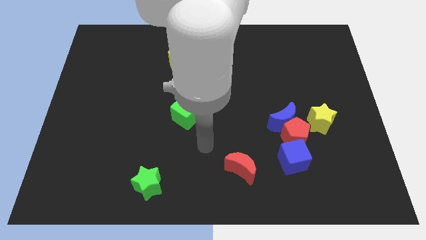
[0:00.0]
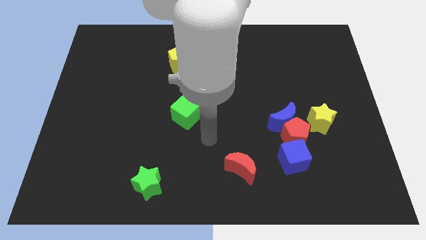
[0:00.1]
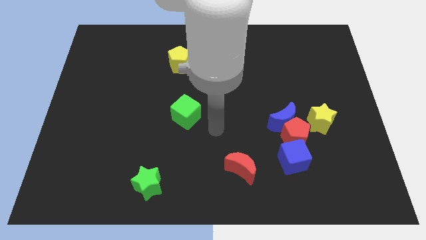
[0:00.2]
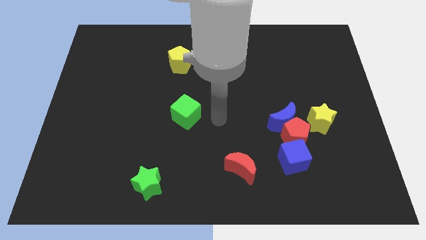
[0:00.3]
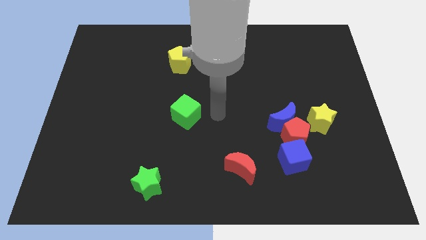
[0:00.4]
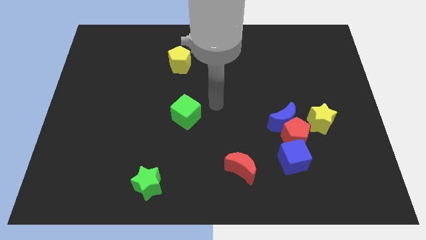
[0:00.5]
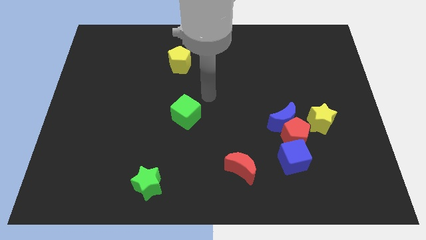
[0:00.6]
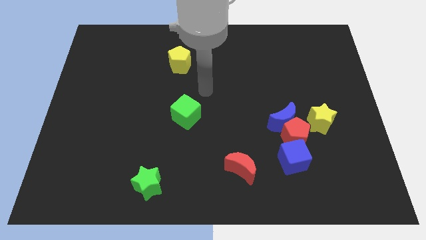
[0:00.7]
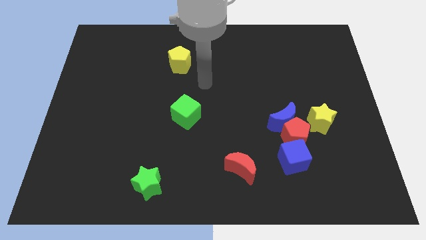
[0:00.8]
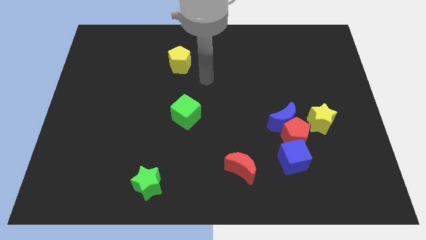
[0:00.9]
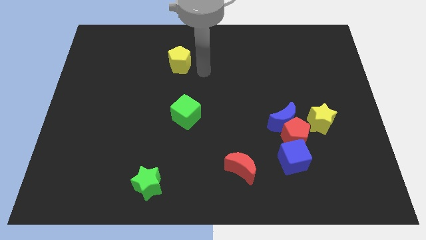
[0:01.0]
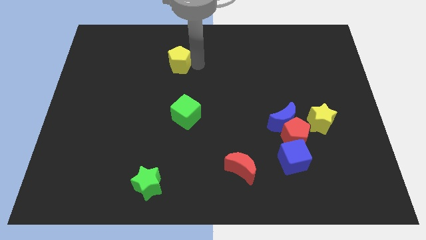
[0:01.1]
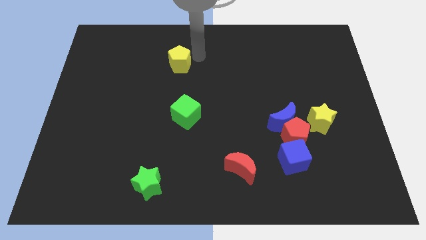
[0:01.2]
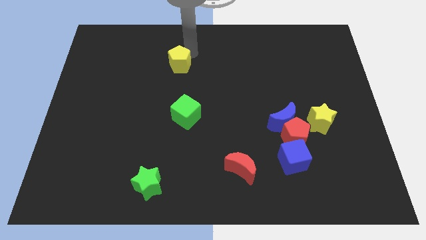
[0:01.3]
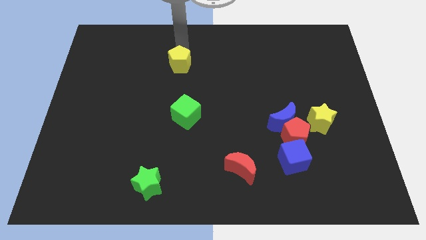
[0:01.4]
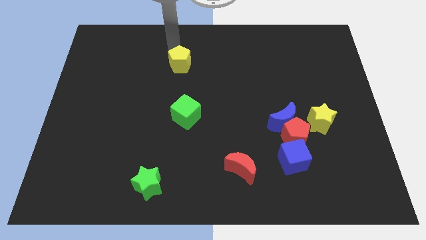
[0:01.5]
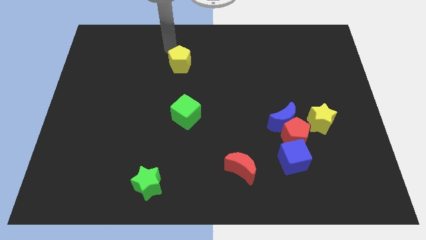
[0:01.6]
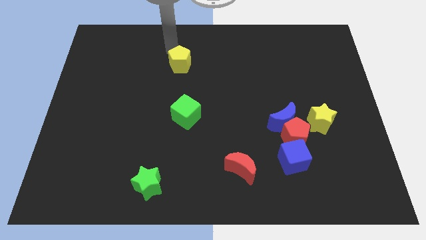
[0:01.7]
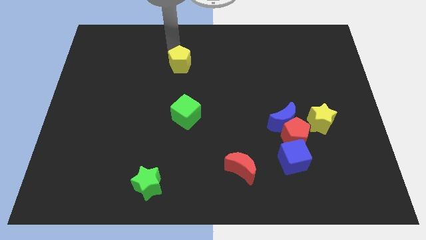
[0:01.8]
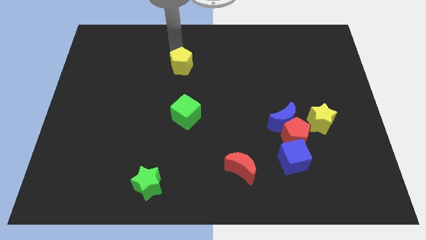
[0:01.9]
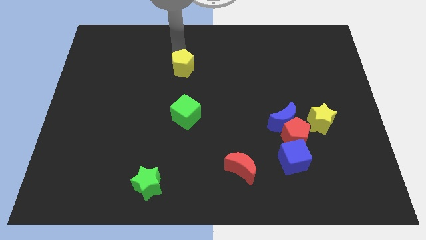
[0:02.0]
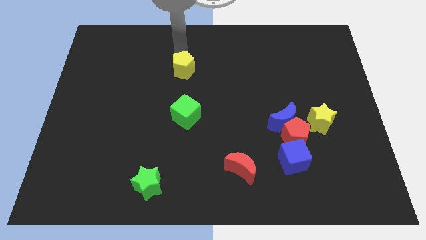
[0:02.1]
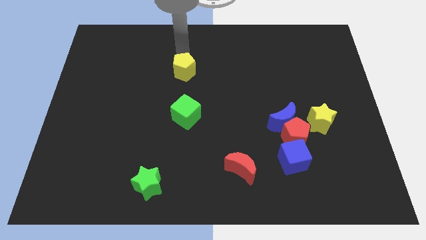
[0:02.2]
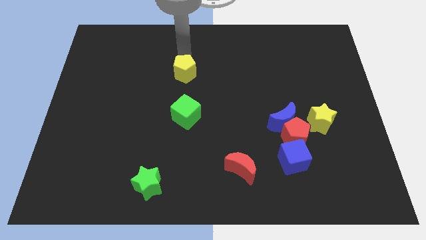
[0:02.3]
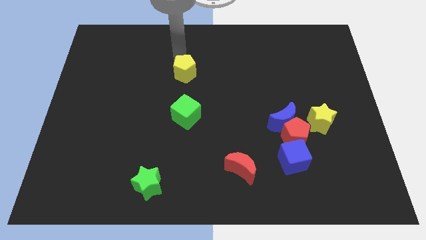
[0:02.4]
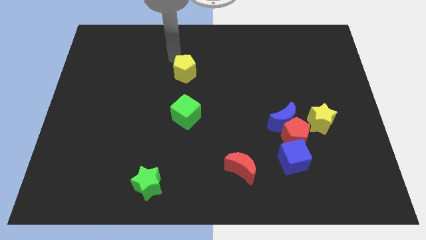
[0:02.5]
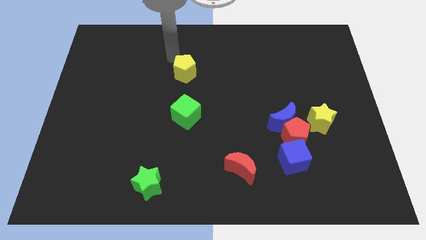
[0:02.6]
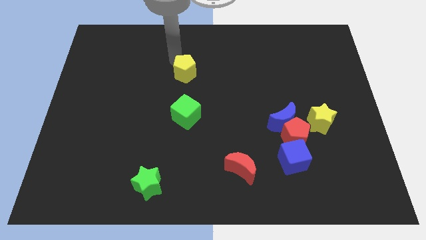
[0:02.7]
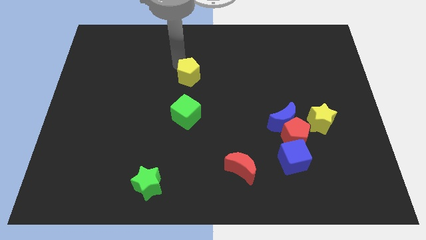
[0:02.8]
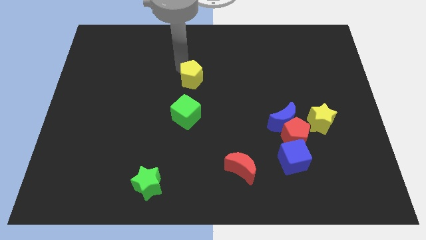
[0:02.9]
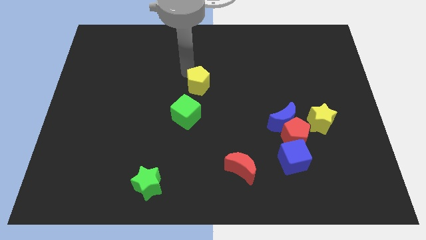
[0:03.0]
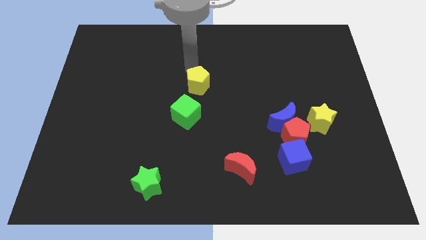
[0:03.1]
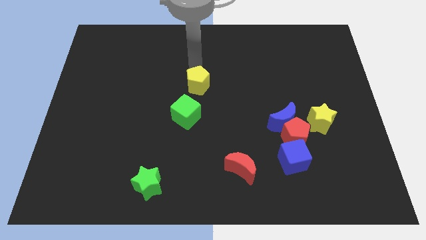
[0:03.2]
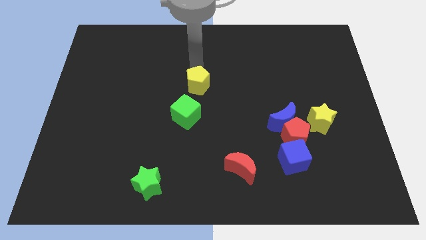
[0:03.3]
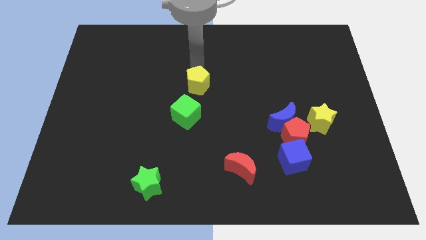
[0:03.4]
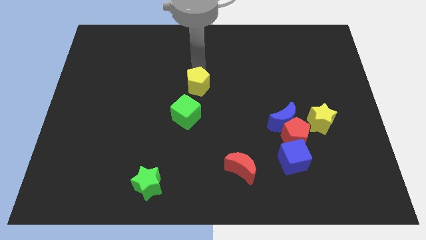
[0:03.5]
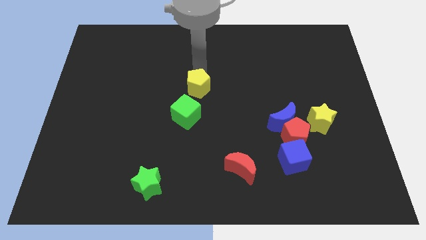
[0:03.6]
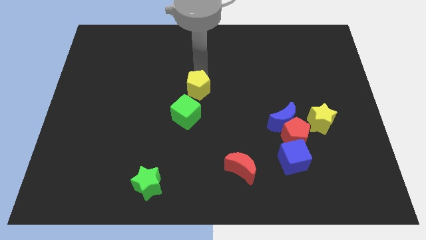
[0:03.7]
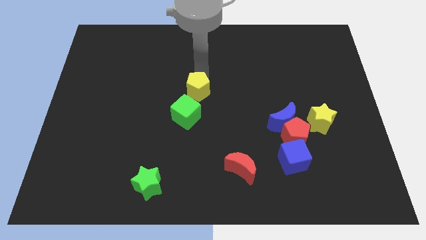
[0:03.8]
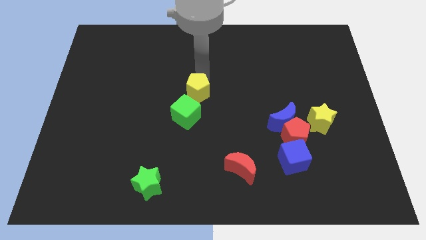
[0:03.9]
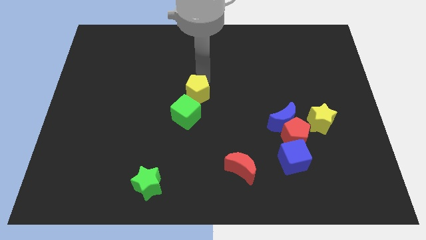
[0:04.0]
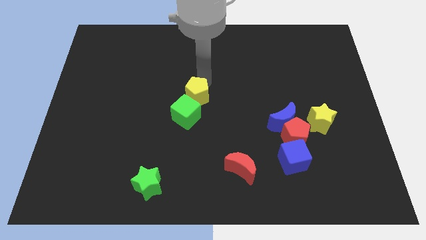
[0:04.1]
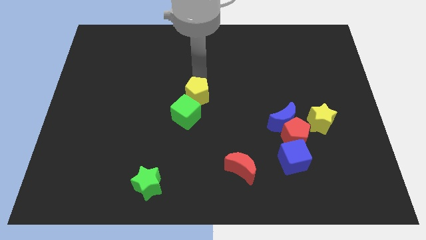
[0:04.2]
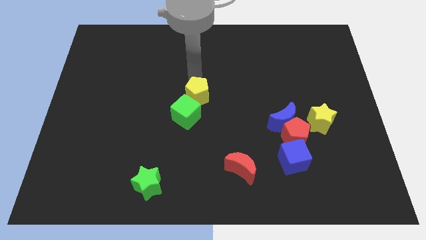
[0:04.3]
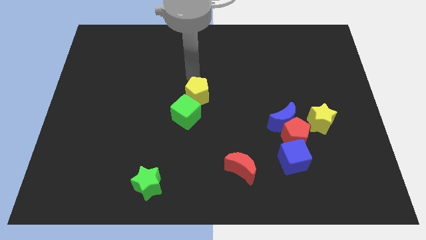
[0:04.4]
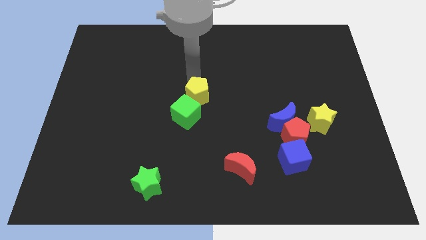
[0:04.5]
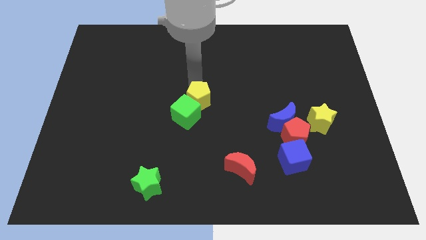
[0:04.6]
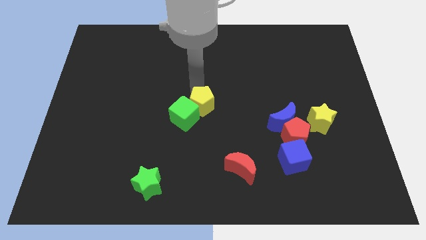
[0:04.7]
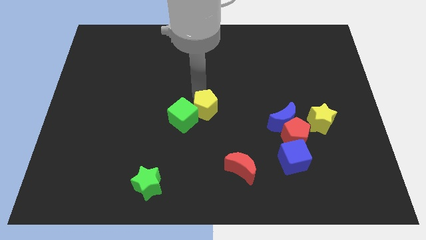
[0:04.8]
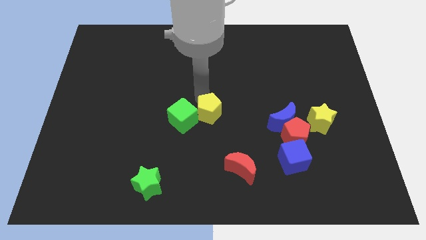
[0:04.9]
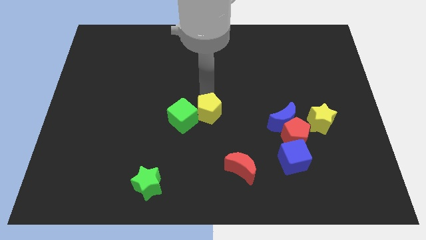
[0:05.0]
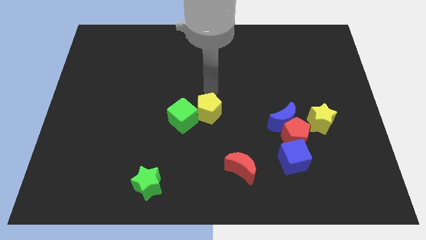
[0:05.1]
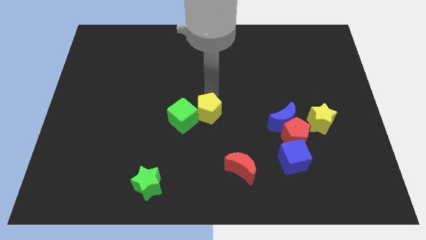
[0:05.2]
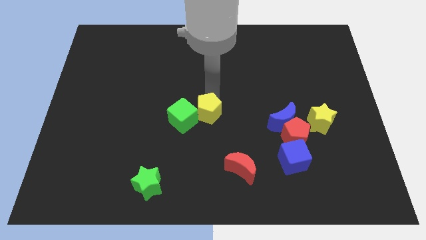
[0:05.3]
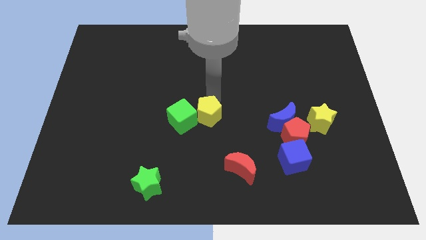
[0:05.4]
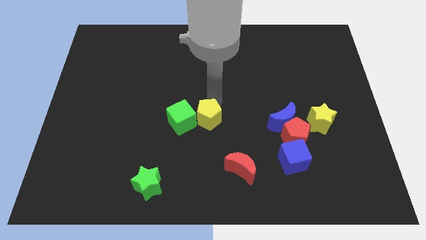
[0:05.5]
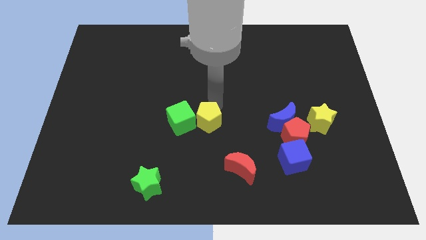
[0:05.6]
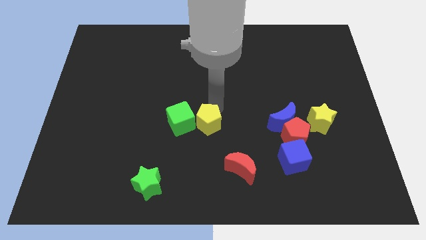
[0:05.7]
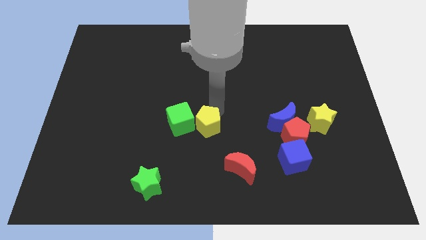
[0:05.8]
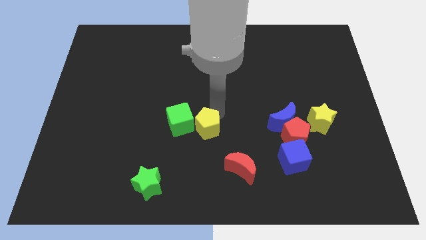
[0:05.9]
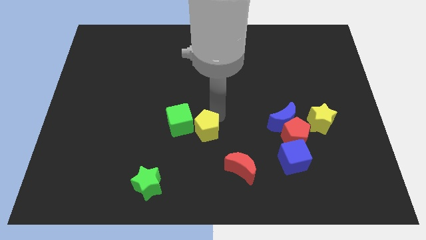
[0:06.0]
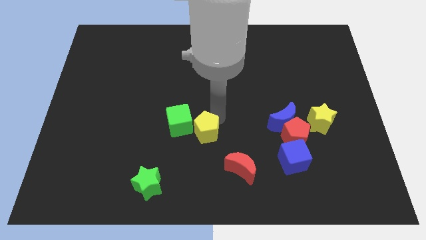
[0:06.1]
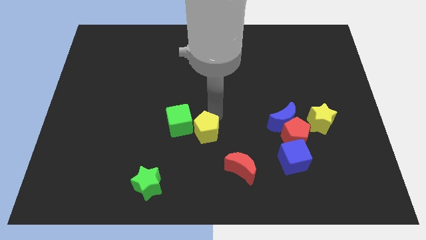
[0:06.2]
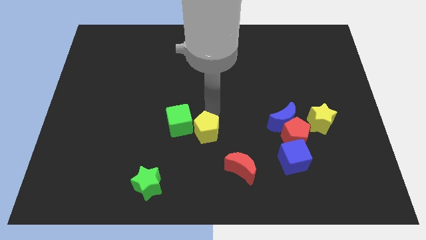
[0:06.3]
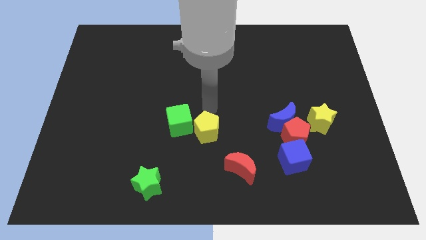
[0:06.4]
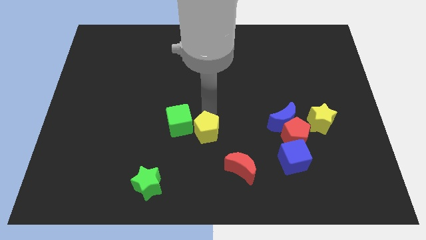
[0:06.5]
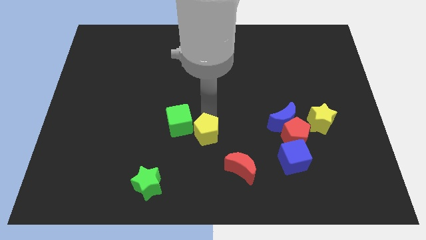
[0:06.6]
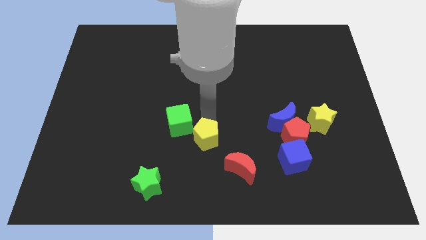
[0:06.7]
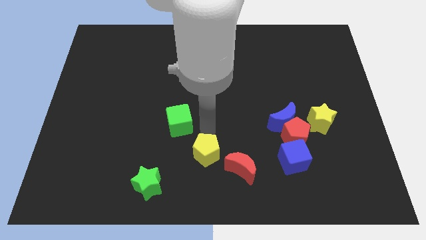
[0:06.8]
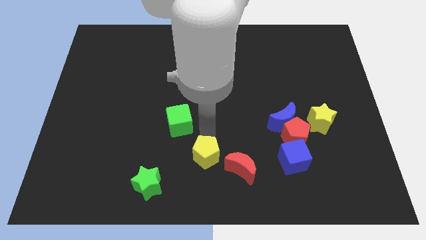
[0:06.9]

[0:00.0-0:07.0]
slide the yellow pentagon to the bottom

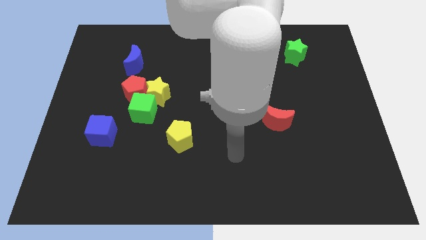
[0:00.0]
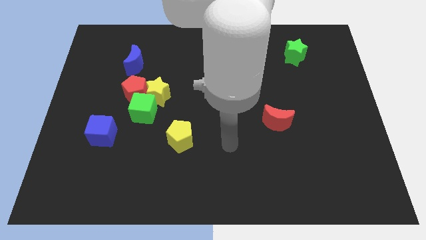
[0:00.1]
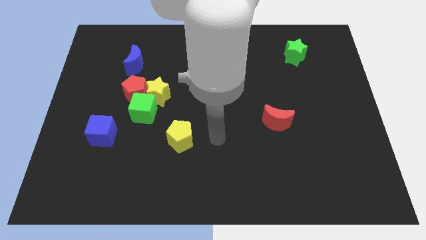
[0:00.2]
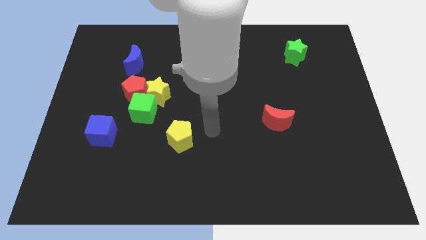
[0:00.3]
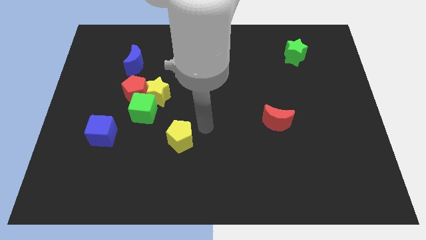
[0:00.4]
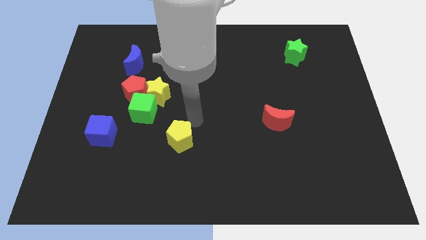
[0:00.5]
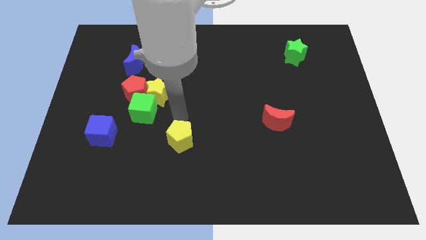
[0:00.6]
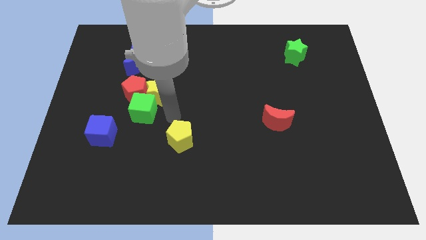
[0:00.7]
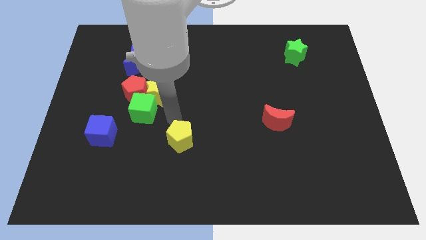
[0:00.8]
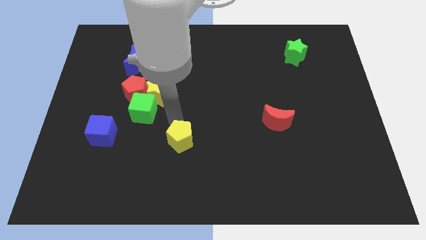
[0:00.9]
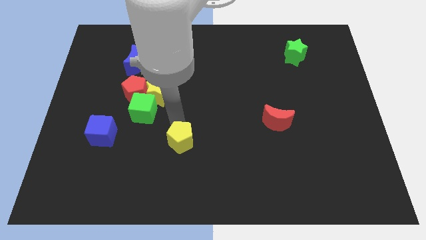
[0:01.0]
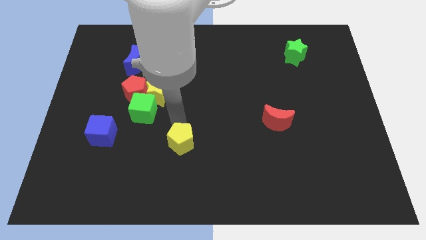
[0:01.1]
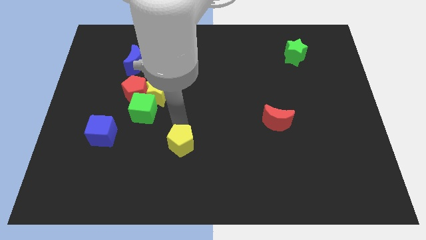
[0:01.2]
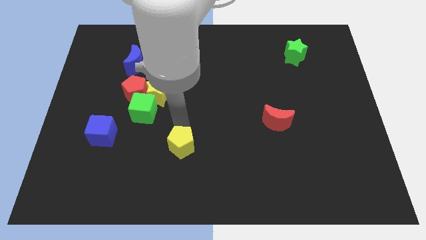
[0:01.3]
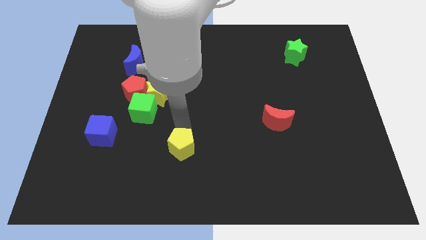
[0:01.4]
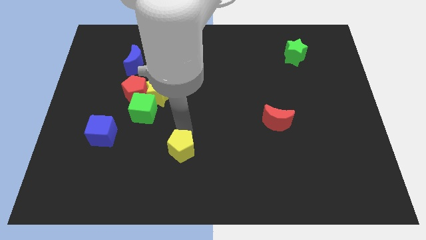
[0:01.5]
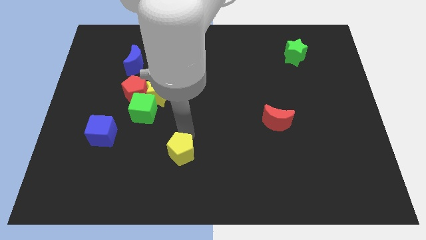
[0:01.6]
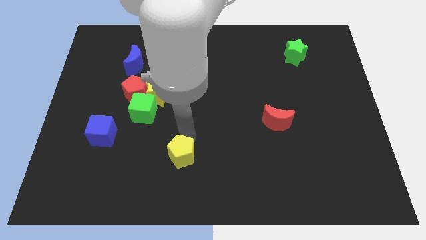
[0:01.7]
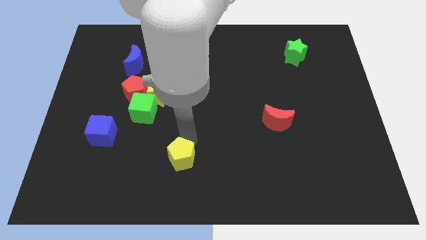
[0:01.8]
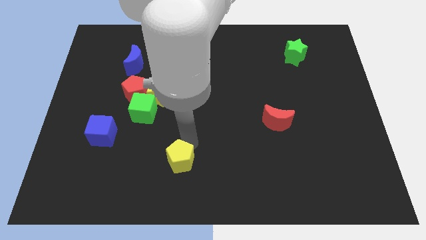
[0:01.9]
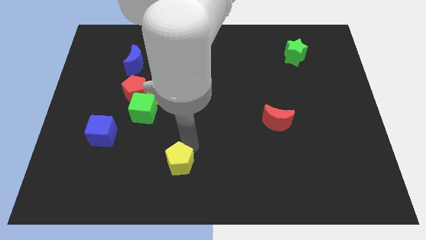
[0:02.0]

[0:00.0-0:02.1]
move the yellow pentagon to the bottom
